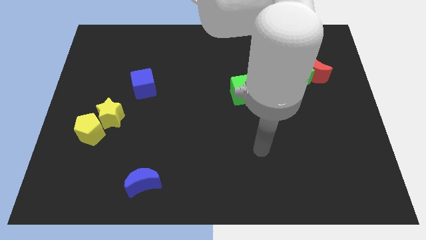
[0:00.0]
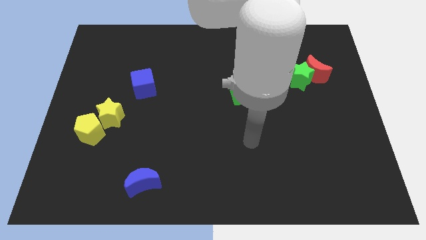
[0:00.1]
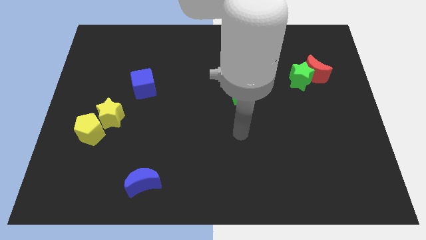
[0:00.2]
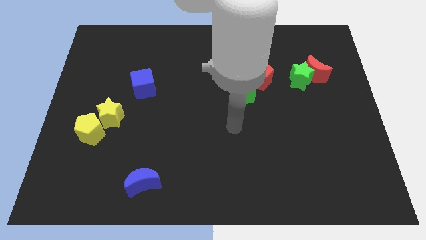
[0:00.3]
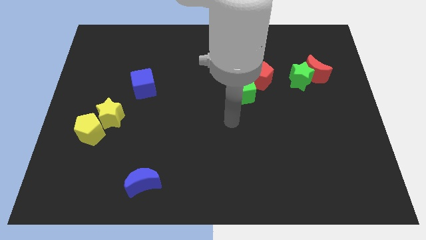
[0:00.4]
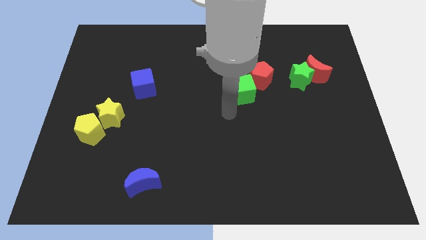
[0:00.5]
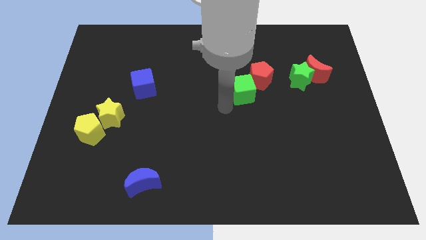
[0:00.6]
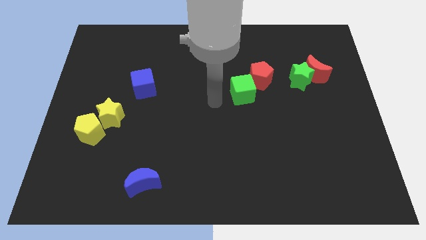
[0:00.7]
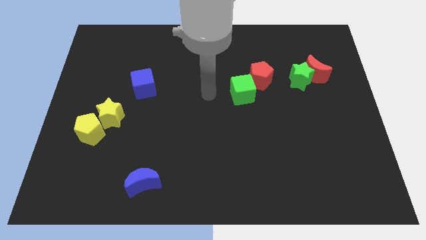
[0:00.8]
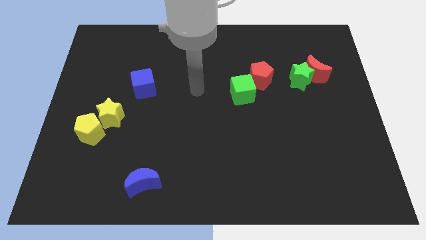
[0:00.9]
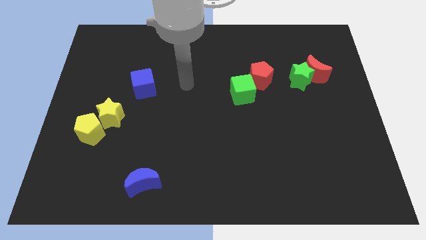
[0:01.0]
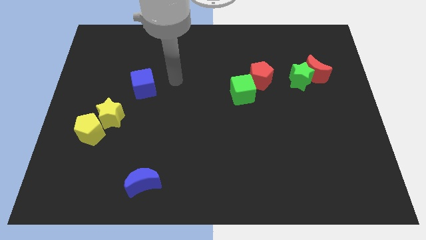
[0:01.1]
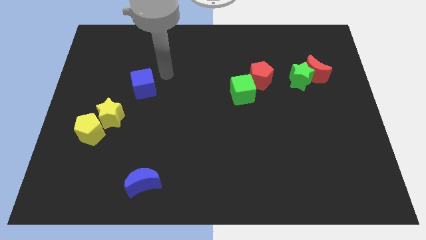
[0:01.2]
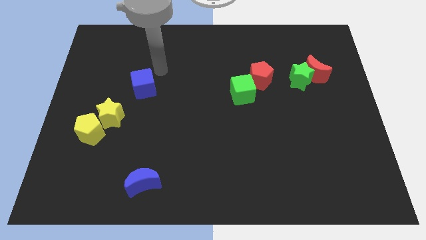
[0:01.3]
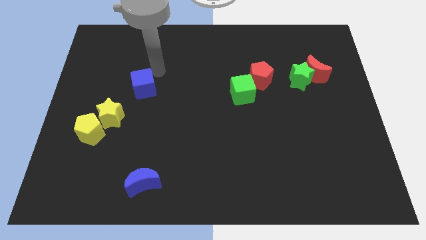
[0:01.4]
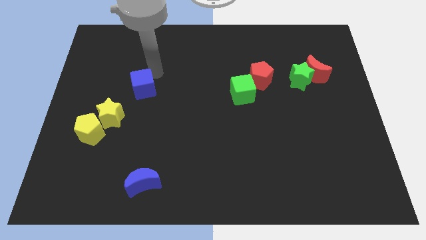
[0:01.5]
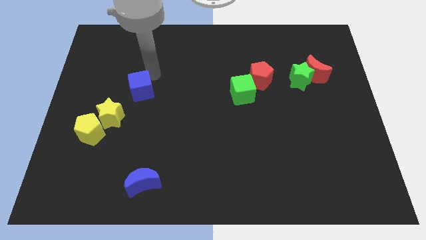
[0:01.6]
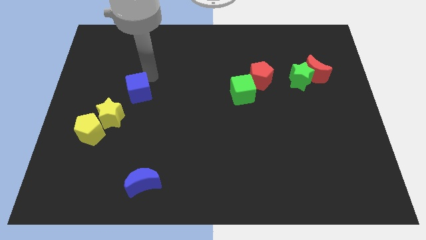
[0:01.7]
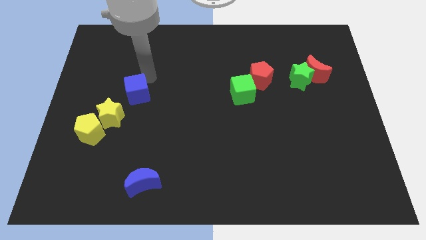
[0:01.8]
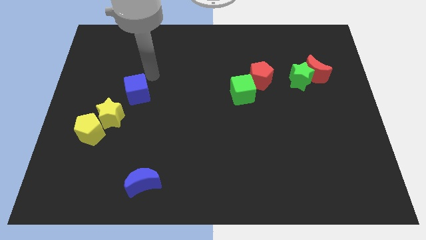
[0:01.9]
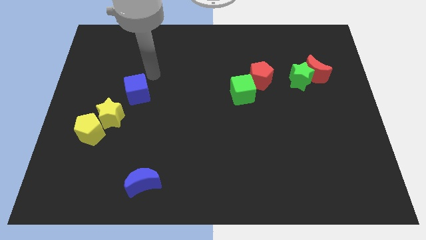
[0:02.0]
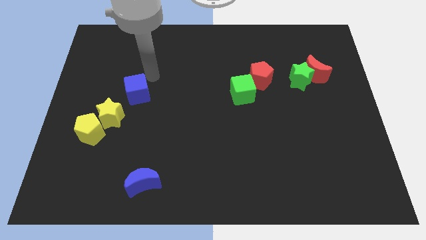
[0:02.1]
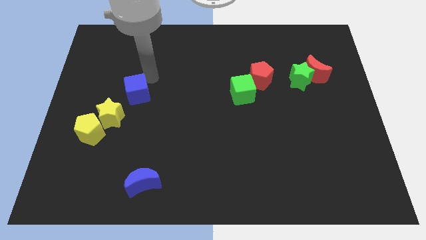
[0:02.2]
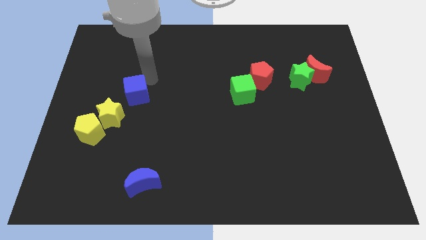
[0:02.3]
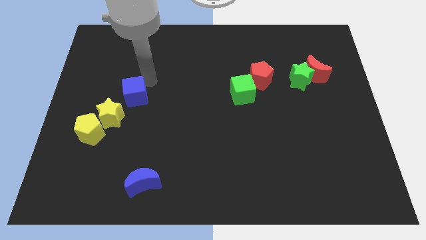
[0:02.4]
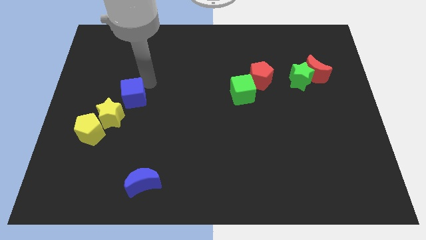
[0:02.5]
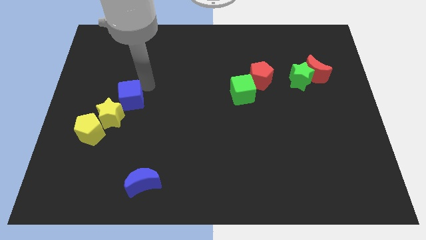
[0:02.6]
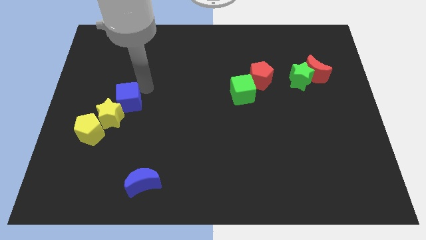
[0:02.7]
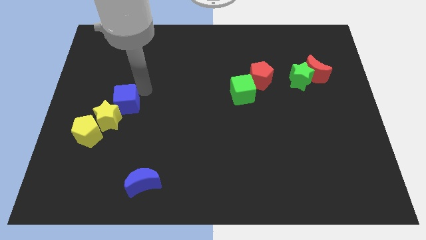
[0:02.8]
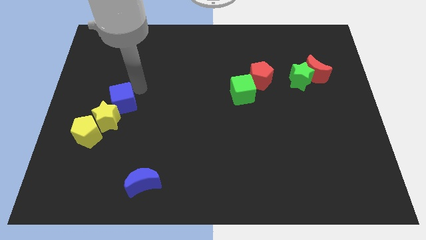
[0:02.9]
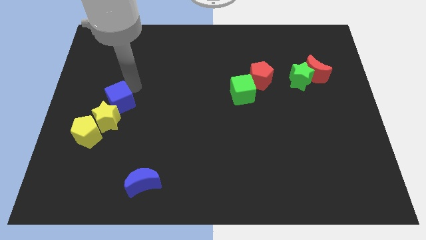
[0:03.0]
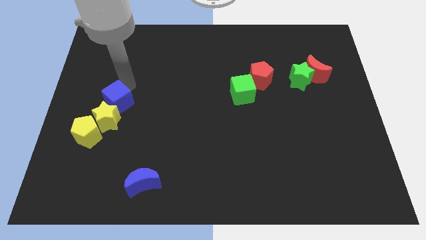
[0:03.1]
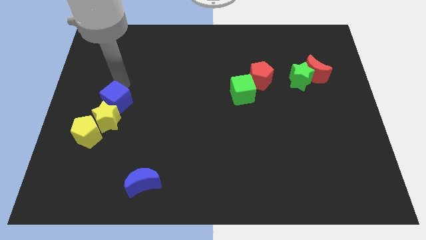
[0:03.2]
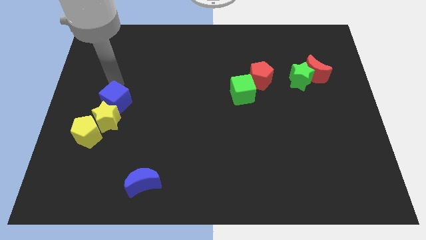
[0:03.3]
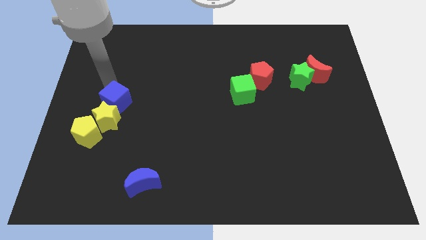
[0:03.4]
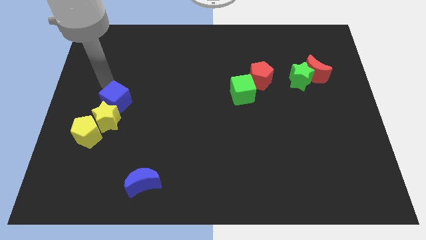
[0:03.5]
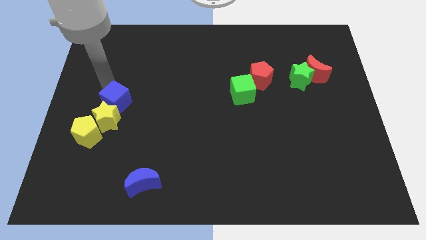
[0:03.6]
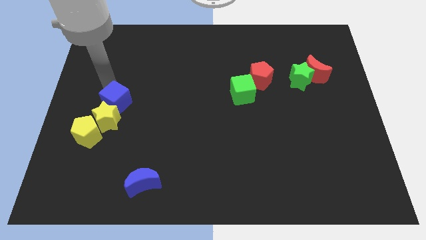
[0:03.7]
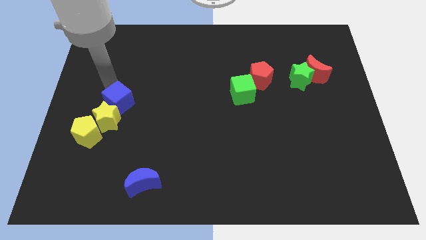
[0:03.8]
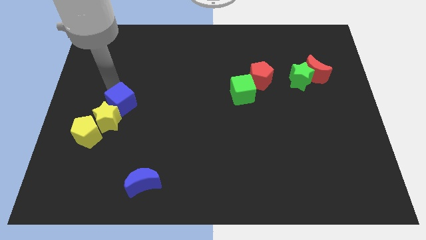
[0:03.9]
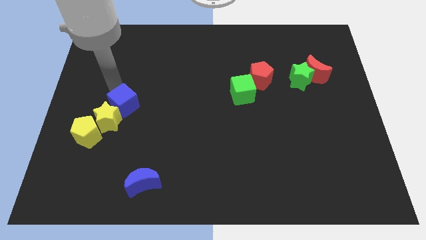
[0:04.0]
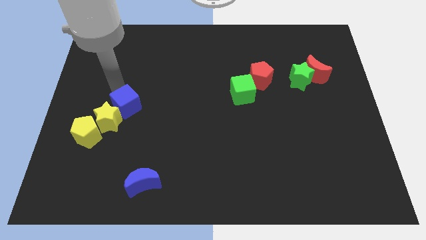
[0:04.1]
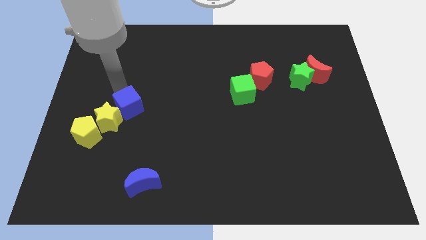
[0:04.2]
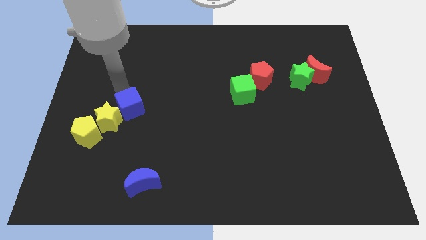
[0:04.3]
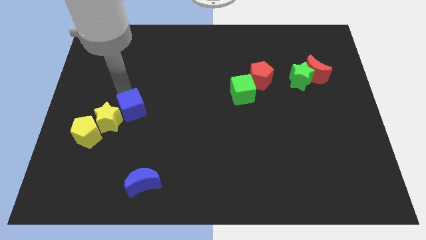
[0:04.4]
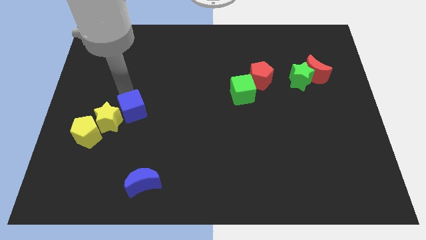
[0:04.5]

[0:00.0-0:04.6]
move the blue cube downwards a bit

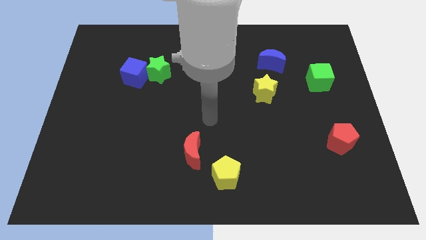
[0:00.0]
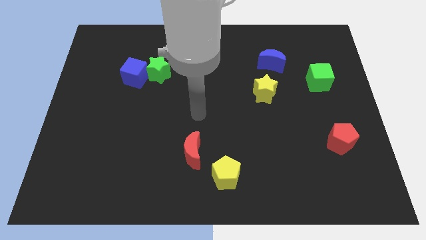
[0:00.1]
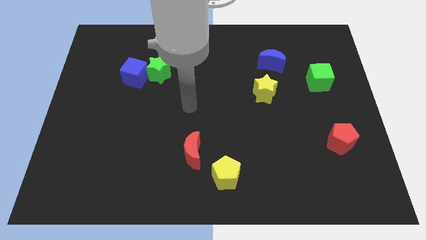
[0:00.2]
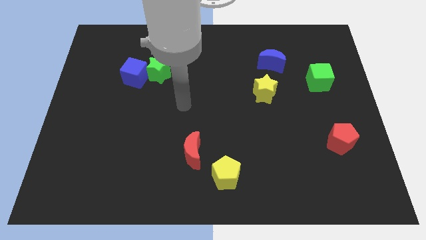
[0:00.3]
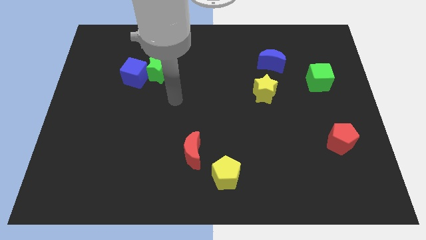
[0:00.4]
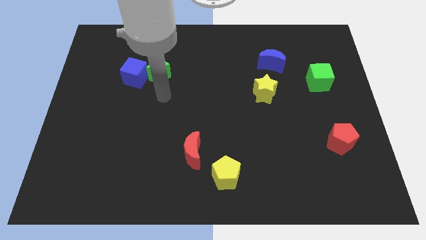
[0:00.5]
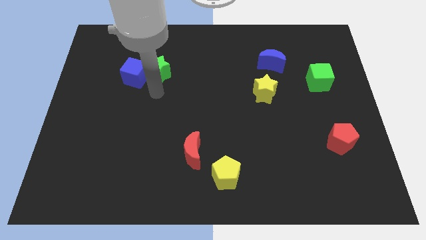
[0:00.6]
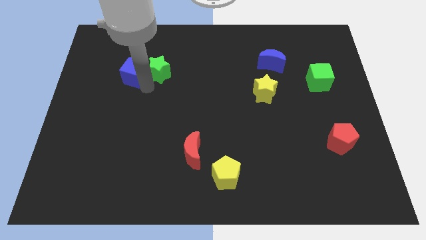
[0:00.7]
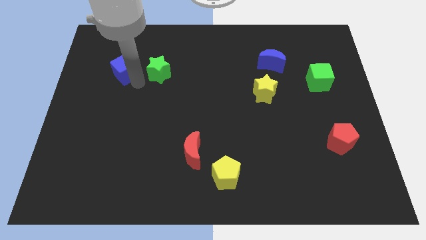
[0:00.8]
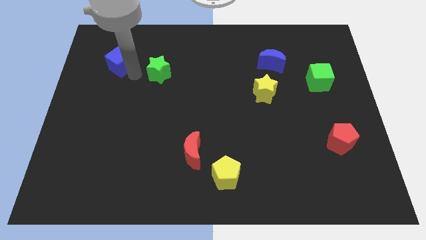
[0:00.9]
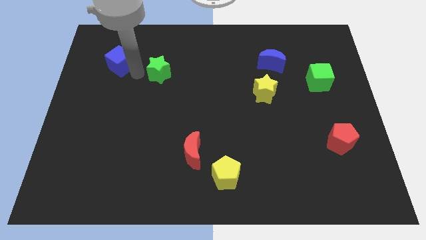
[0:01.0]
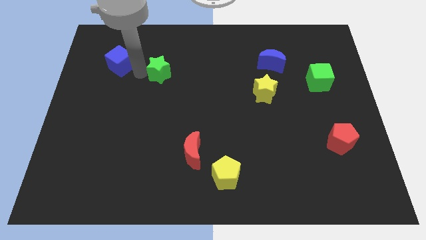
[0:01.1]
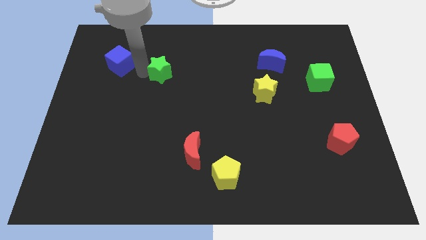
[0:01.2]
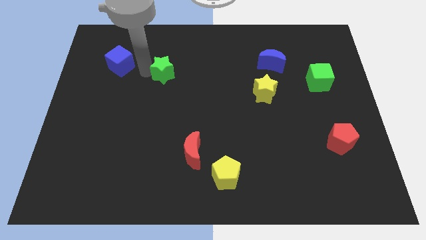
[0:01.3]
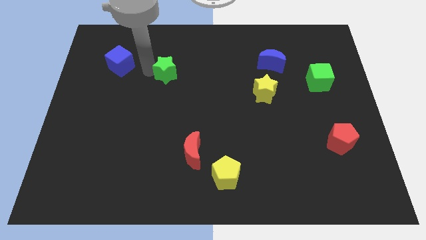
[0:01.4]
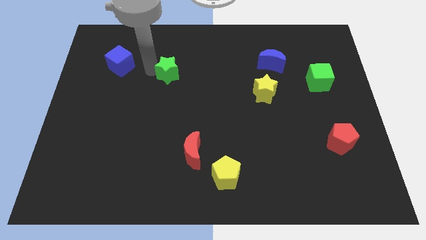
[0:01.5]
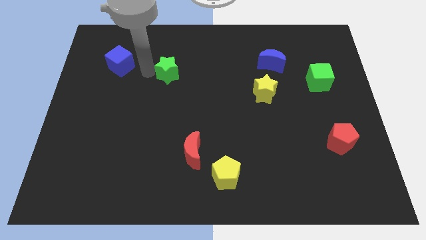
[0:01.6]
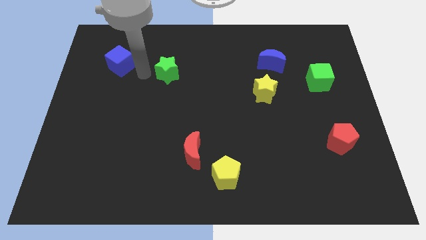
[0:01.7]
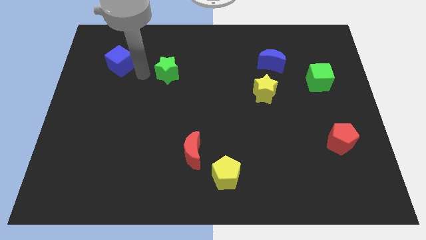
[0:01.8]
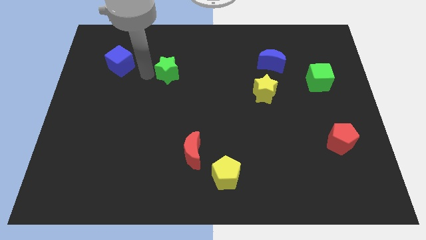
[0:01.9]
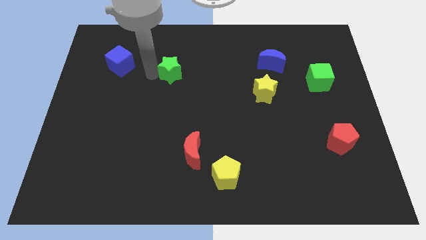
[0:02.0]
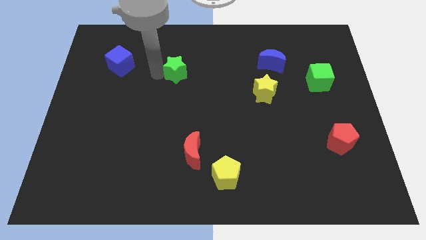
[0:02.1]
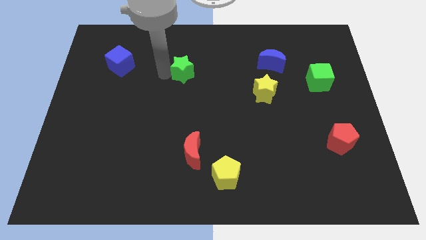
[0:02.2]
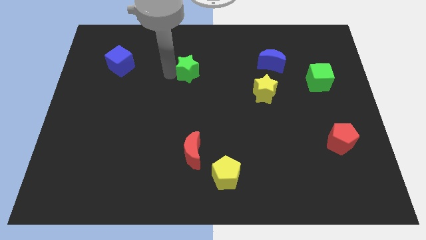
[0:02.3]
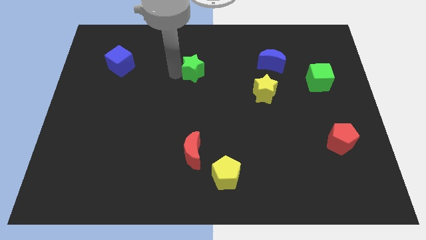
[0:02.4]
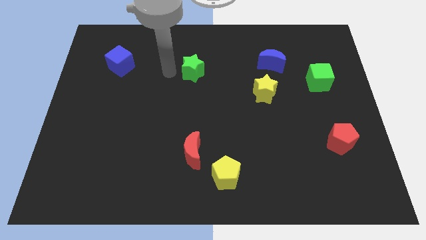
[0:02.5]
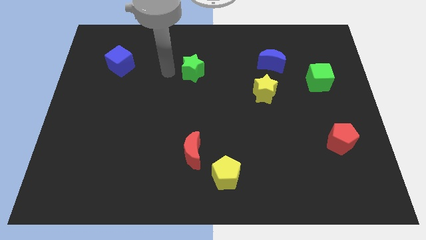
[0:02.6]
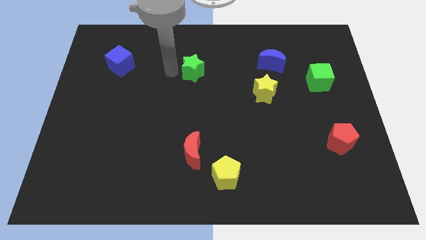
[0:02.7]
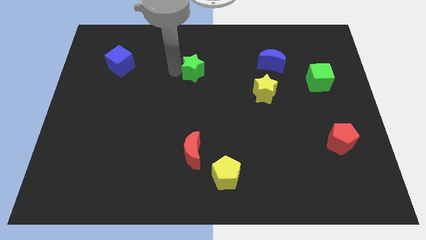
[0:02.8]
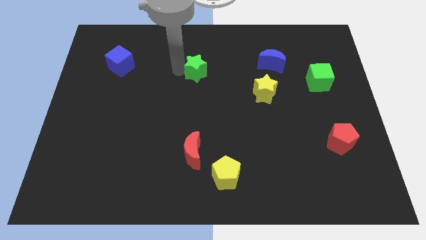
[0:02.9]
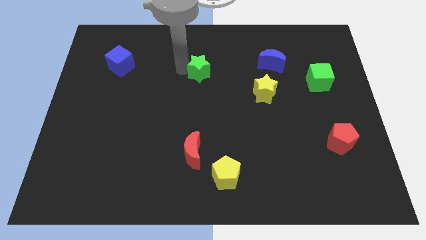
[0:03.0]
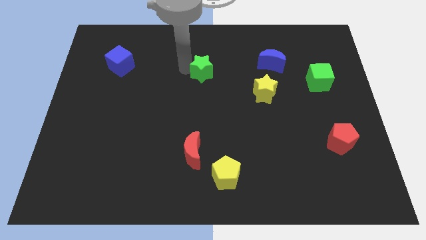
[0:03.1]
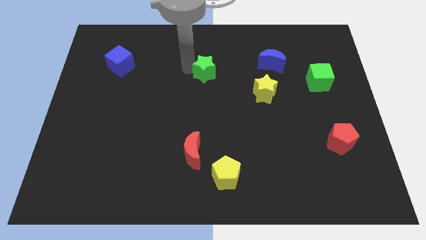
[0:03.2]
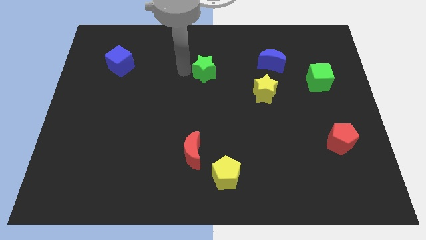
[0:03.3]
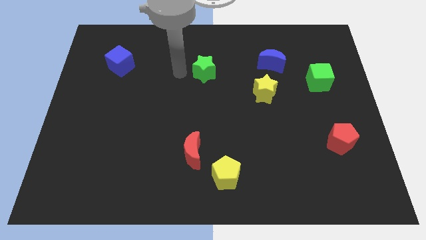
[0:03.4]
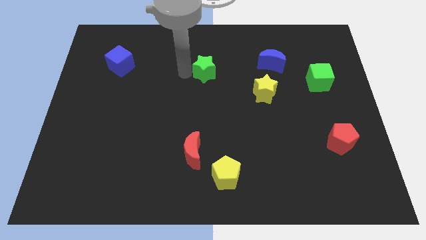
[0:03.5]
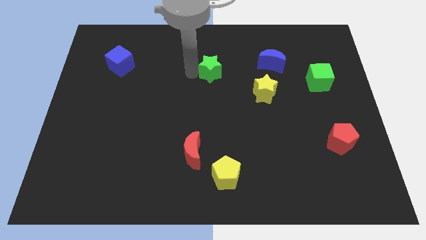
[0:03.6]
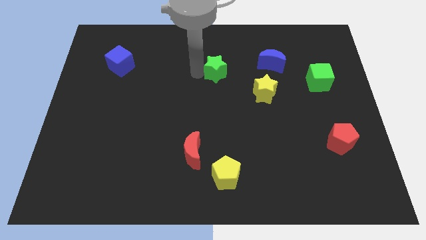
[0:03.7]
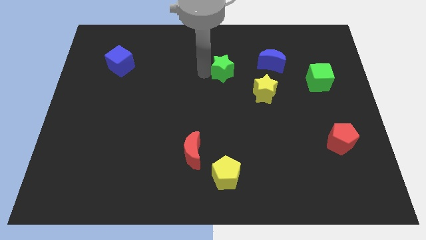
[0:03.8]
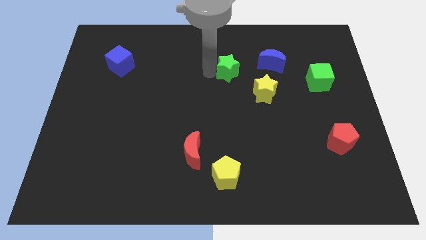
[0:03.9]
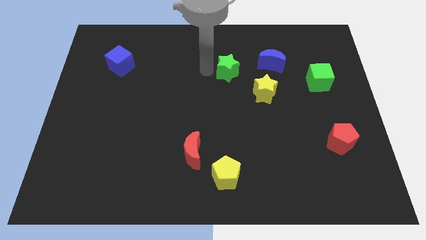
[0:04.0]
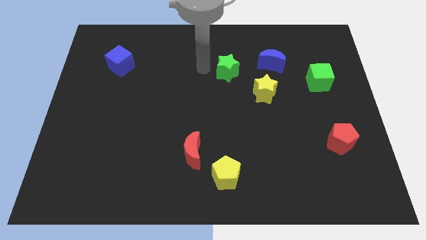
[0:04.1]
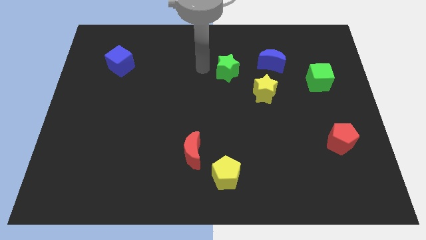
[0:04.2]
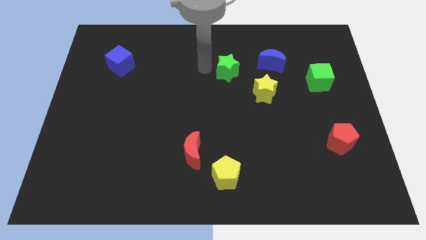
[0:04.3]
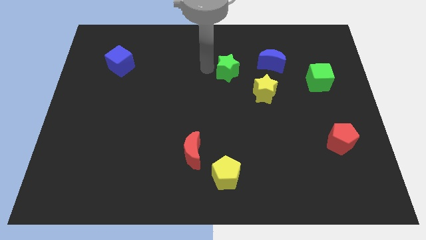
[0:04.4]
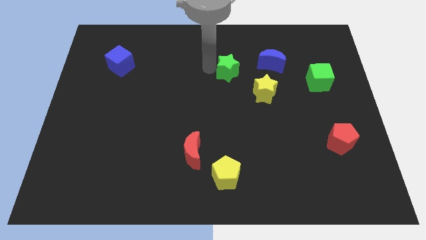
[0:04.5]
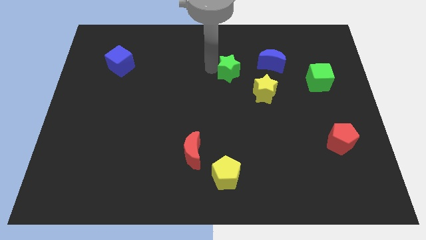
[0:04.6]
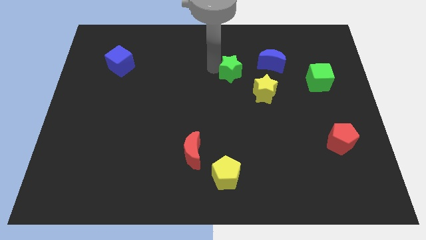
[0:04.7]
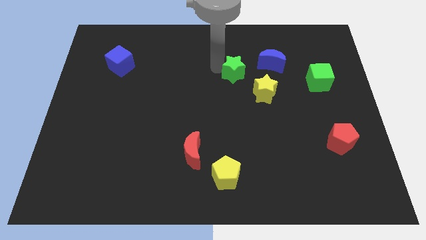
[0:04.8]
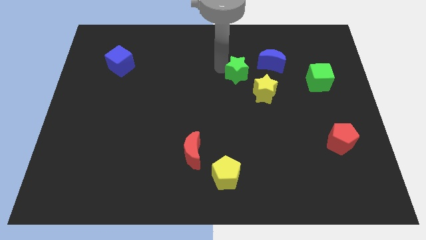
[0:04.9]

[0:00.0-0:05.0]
slide the green star to the right
